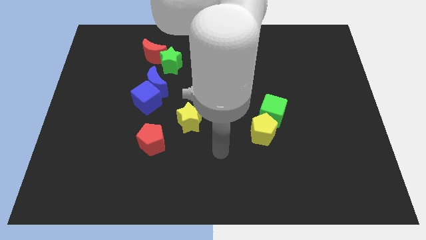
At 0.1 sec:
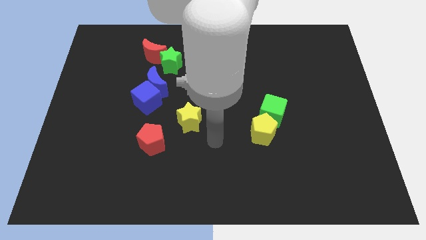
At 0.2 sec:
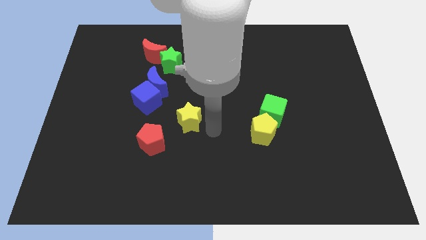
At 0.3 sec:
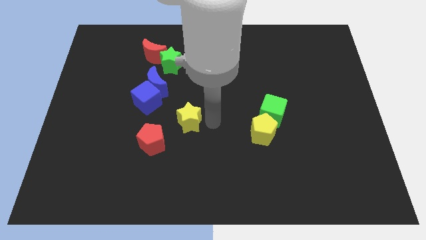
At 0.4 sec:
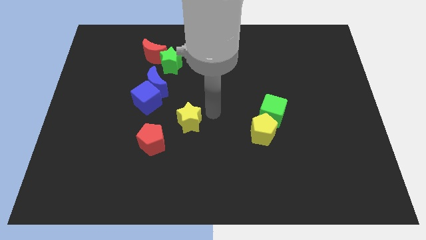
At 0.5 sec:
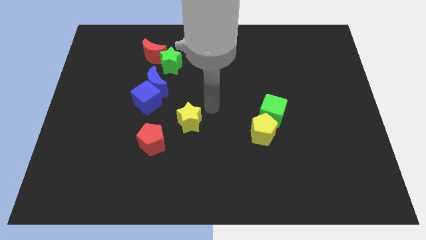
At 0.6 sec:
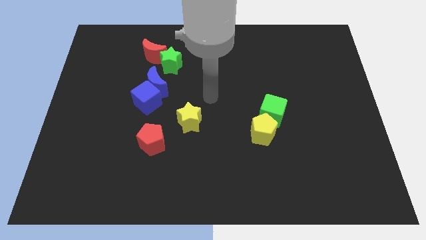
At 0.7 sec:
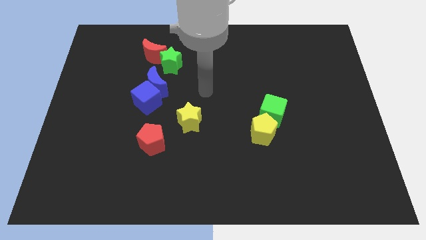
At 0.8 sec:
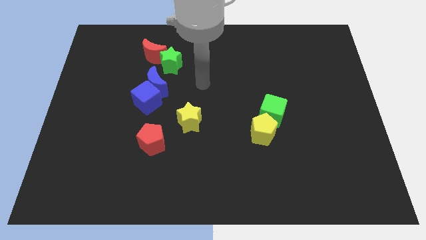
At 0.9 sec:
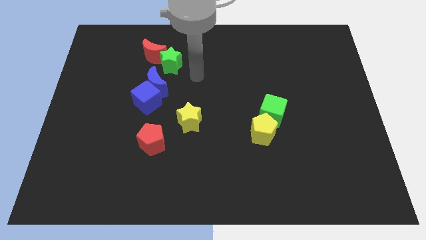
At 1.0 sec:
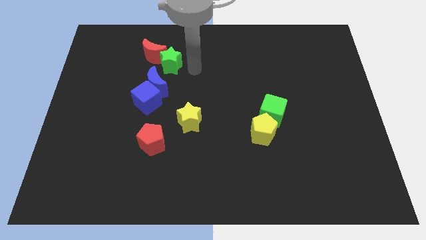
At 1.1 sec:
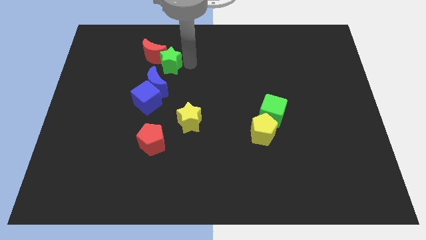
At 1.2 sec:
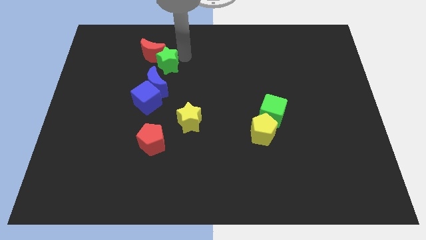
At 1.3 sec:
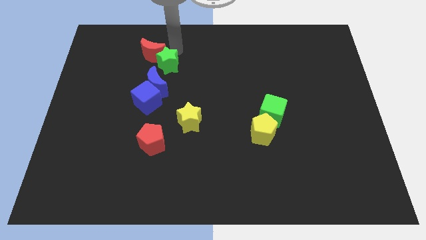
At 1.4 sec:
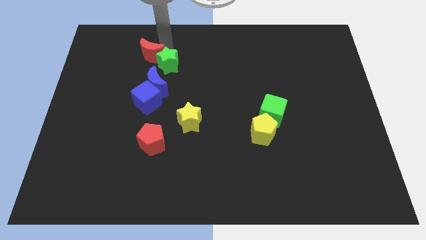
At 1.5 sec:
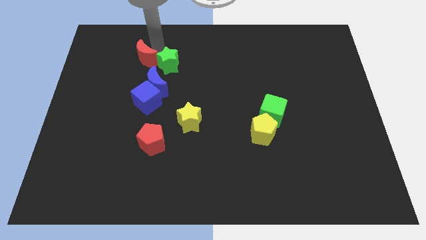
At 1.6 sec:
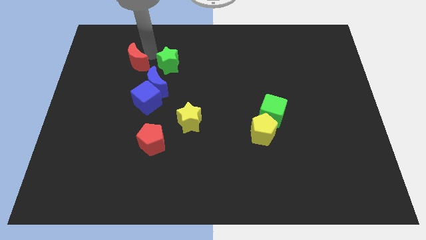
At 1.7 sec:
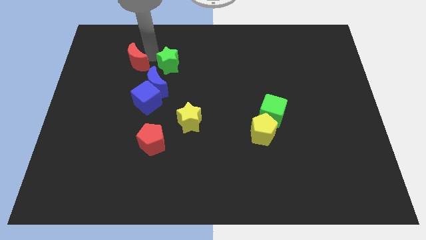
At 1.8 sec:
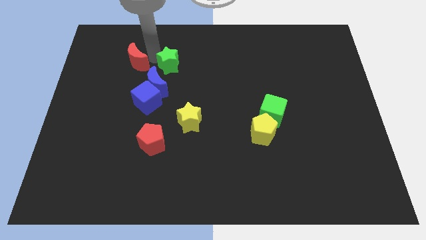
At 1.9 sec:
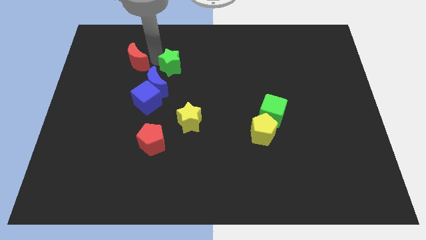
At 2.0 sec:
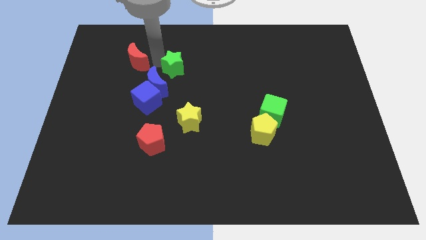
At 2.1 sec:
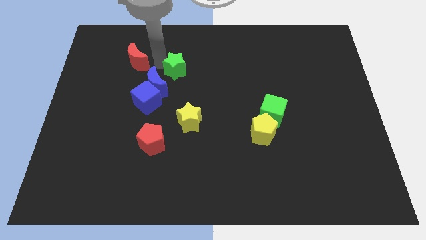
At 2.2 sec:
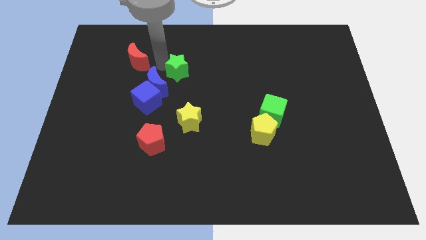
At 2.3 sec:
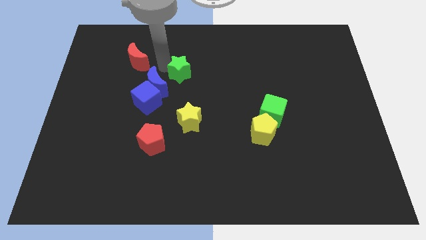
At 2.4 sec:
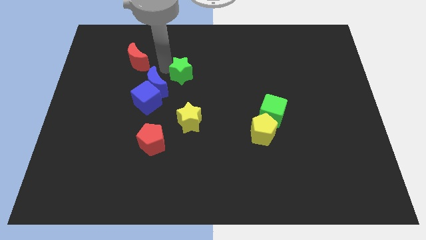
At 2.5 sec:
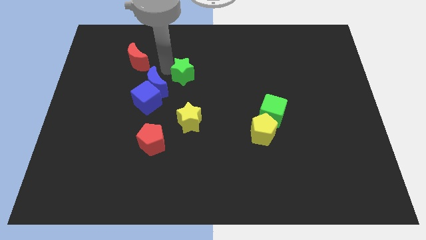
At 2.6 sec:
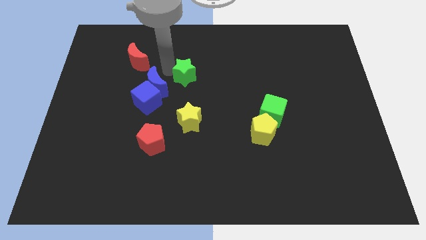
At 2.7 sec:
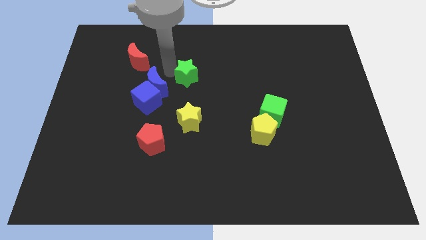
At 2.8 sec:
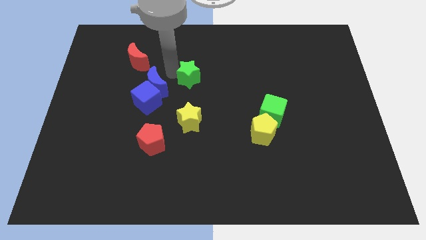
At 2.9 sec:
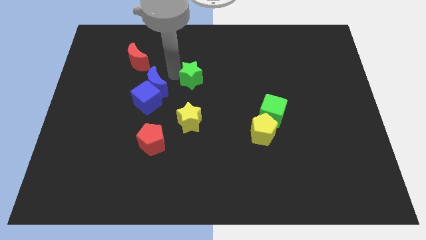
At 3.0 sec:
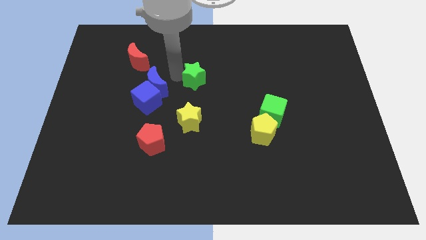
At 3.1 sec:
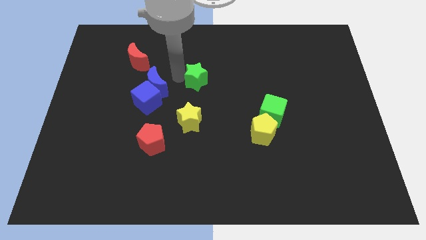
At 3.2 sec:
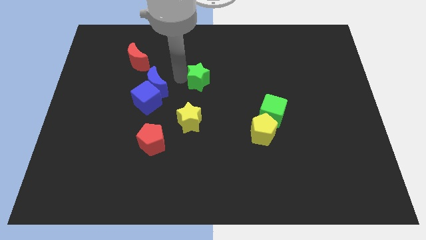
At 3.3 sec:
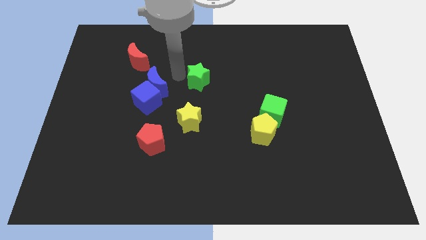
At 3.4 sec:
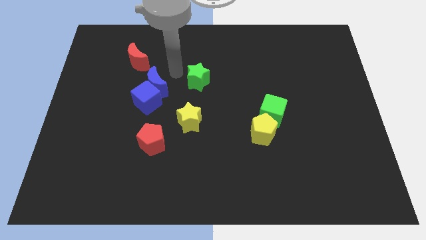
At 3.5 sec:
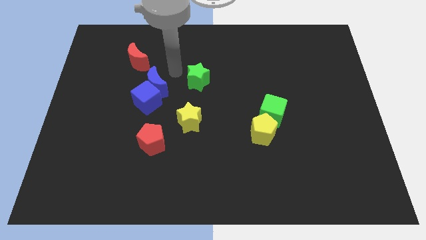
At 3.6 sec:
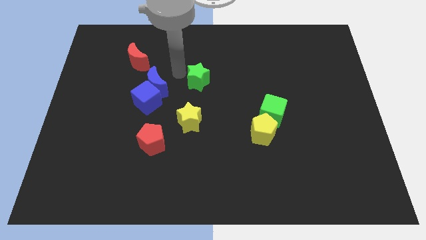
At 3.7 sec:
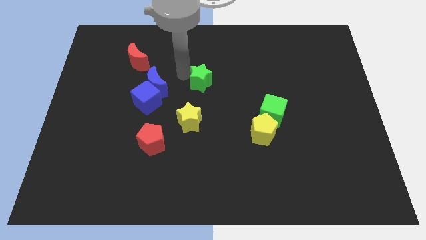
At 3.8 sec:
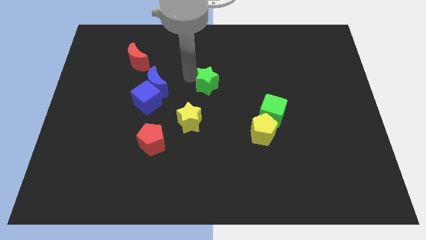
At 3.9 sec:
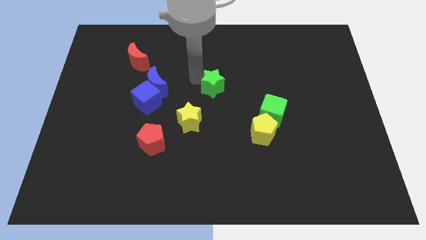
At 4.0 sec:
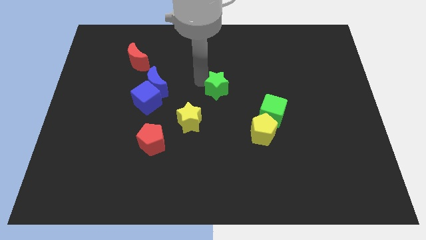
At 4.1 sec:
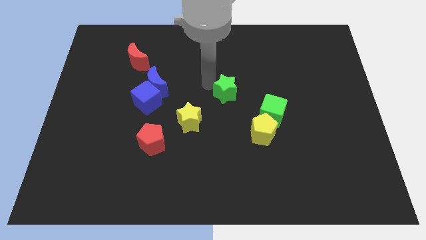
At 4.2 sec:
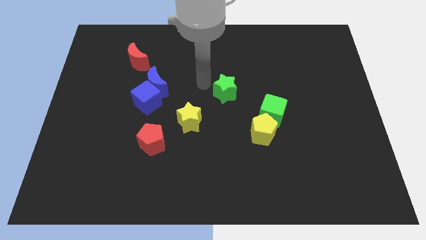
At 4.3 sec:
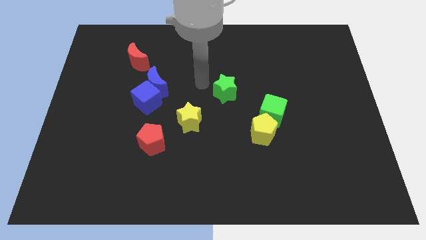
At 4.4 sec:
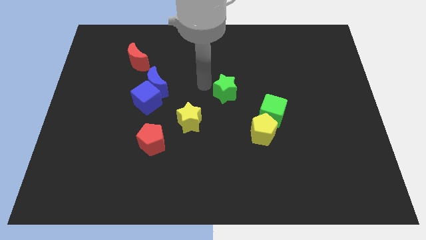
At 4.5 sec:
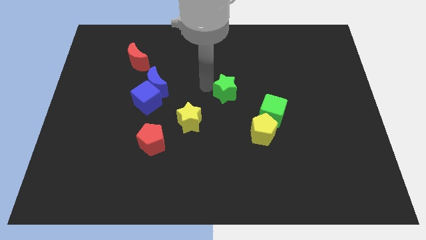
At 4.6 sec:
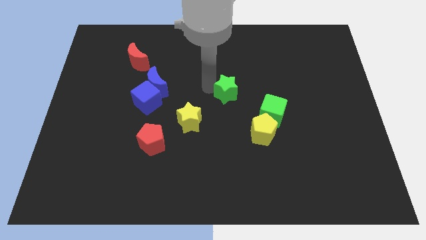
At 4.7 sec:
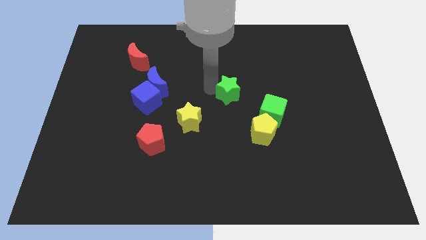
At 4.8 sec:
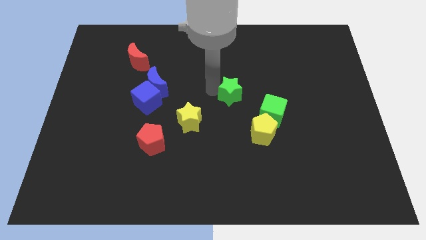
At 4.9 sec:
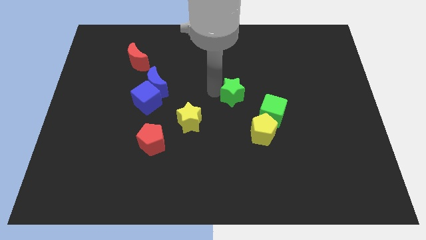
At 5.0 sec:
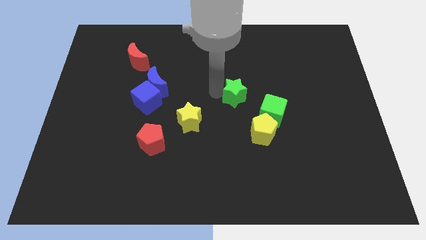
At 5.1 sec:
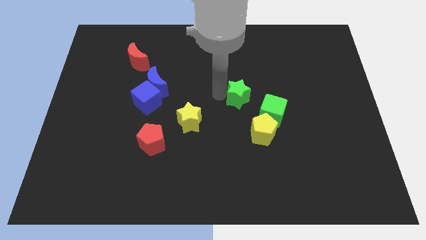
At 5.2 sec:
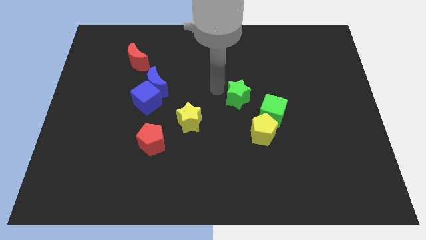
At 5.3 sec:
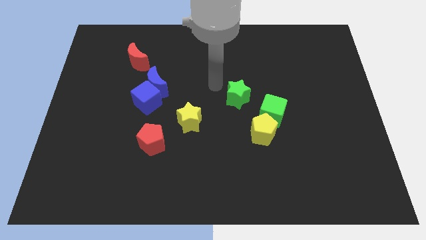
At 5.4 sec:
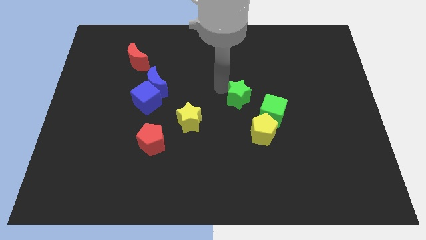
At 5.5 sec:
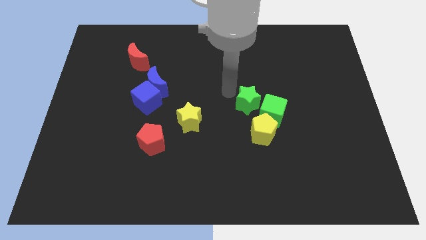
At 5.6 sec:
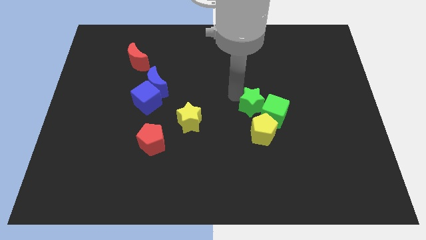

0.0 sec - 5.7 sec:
push the green star to the green cube

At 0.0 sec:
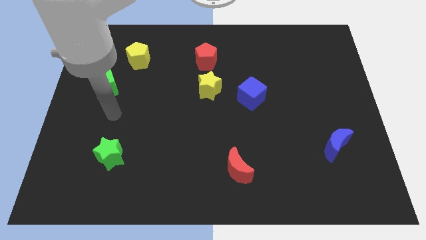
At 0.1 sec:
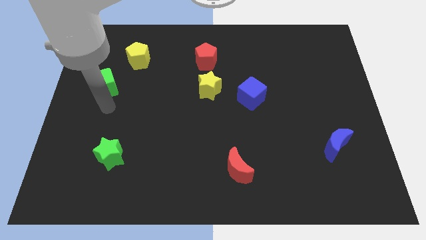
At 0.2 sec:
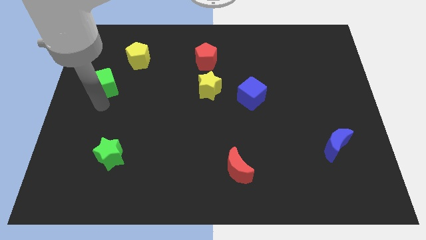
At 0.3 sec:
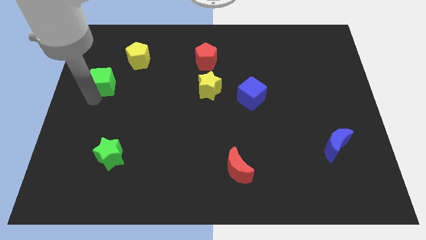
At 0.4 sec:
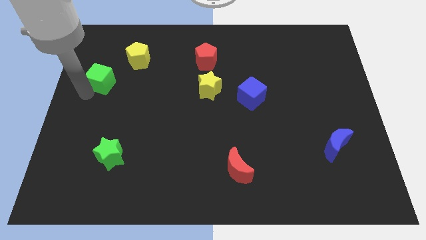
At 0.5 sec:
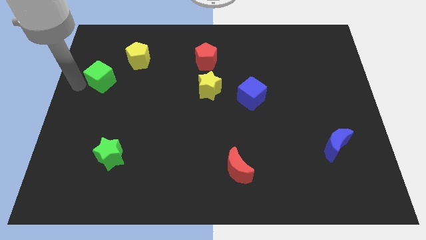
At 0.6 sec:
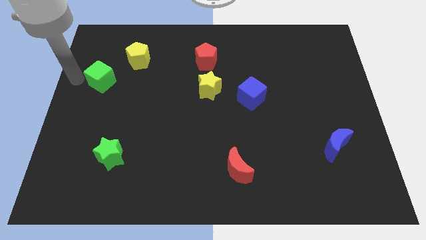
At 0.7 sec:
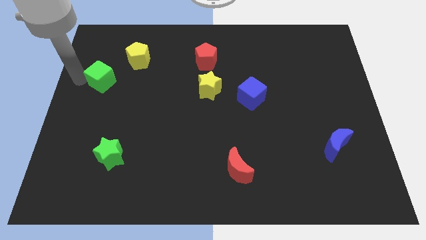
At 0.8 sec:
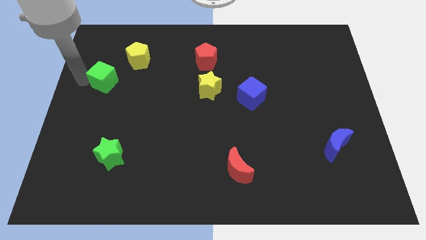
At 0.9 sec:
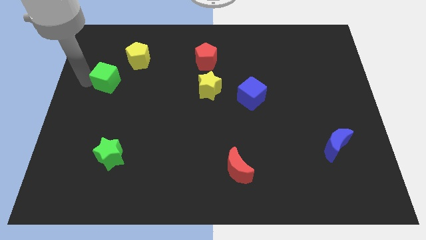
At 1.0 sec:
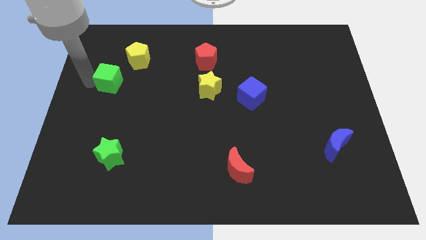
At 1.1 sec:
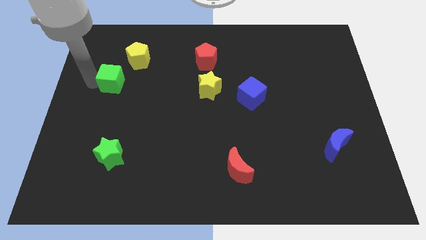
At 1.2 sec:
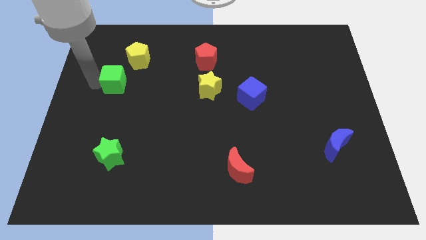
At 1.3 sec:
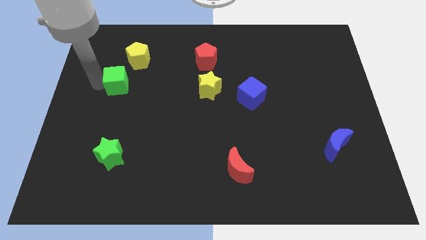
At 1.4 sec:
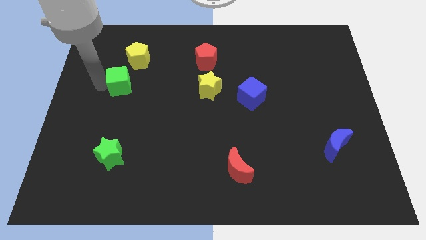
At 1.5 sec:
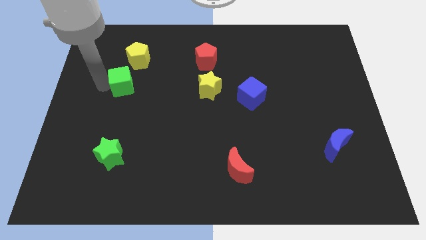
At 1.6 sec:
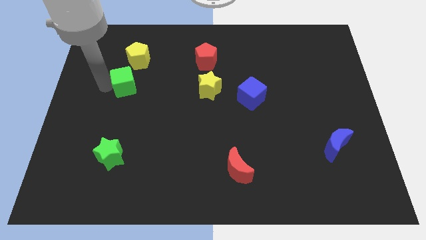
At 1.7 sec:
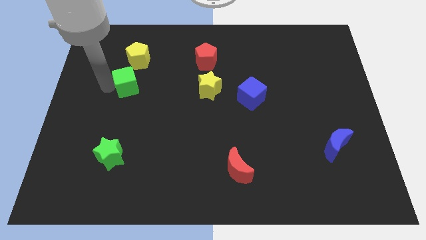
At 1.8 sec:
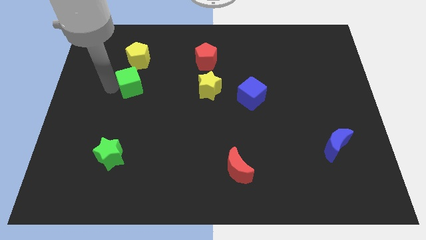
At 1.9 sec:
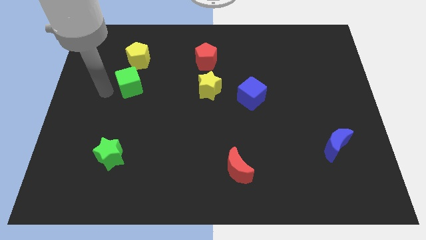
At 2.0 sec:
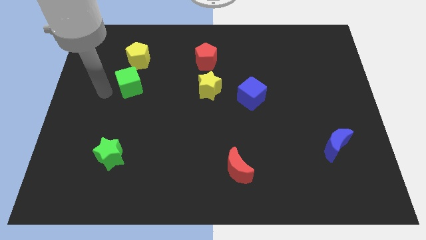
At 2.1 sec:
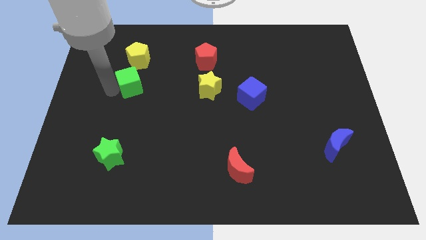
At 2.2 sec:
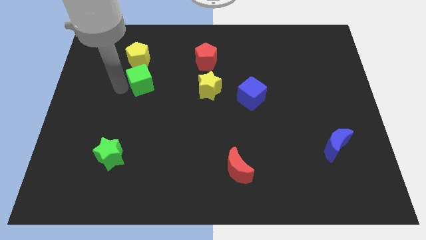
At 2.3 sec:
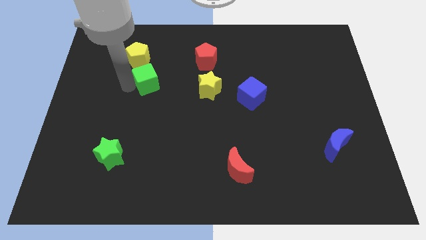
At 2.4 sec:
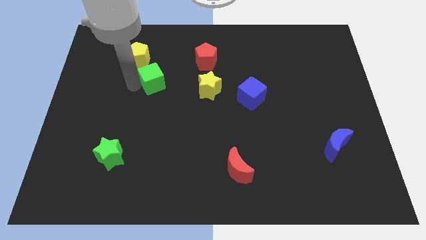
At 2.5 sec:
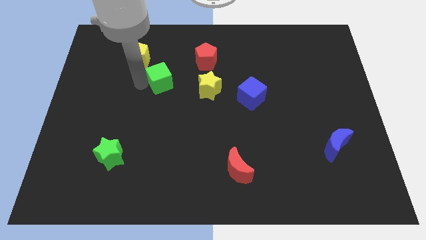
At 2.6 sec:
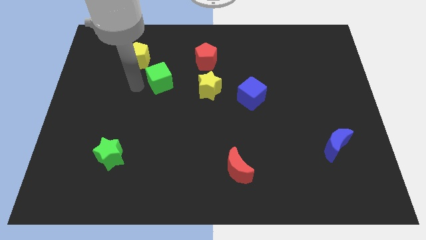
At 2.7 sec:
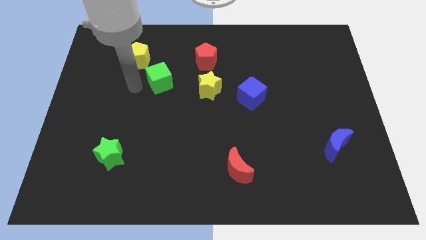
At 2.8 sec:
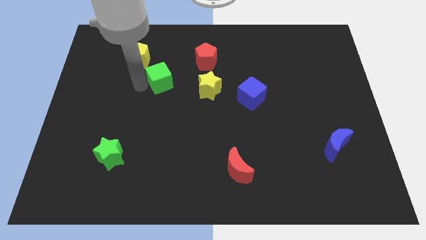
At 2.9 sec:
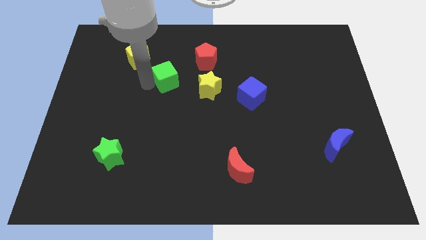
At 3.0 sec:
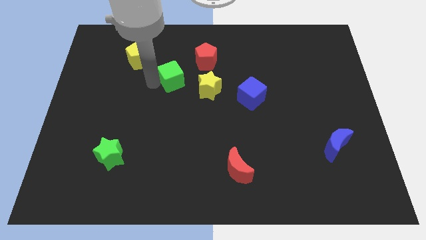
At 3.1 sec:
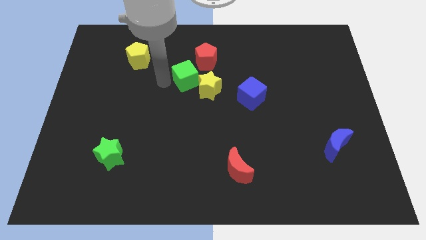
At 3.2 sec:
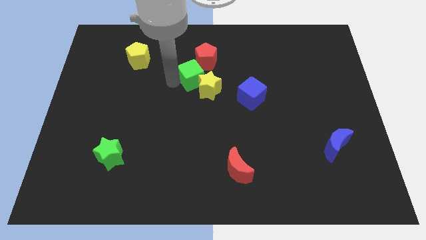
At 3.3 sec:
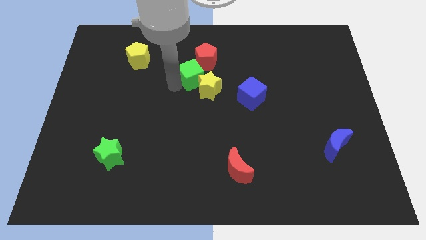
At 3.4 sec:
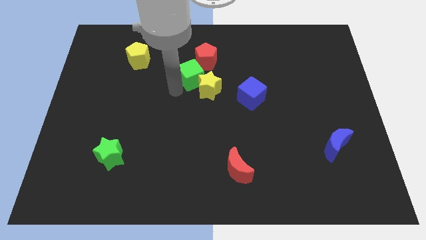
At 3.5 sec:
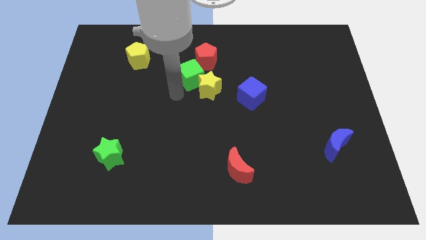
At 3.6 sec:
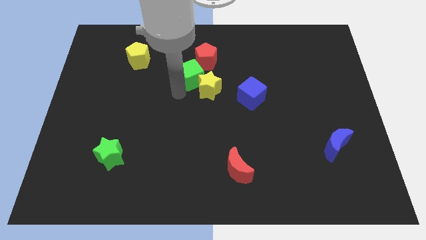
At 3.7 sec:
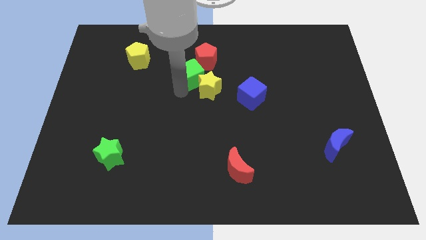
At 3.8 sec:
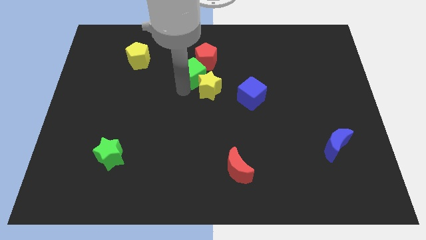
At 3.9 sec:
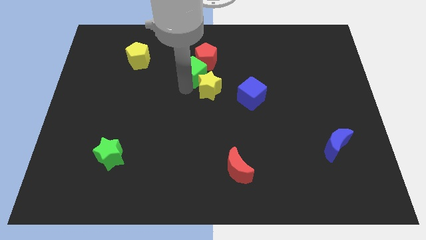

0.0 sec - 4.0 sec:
push the green cube to the red pentagon
